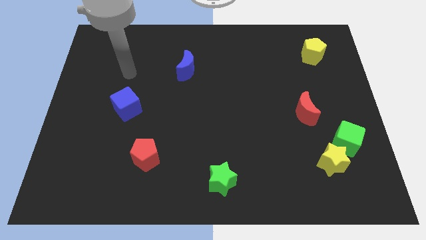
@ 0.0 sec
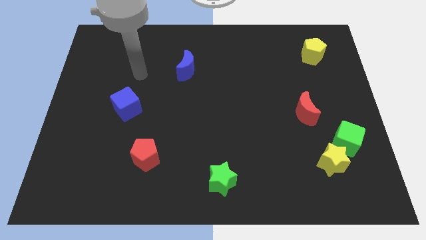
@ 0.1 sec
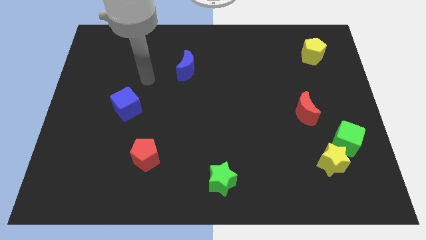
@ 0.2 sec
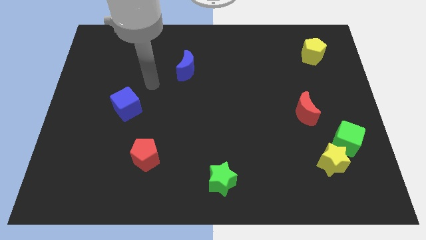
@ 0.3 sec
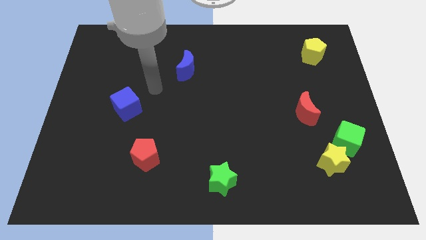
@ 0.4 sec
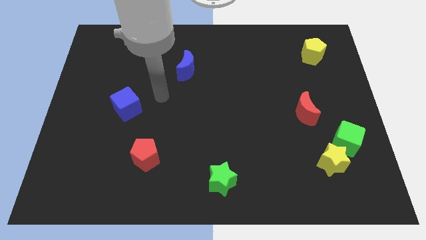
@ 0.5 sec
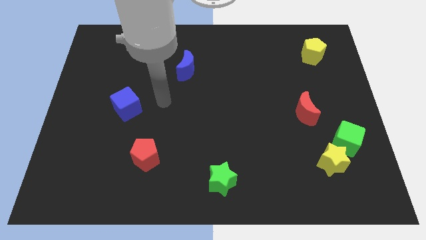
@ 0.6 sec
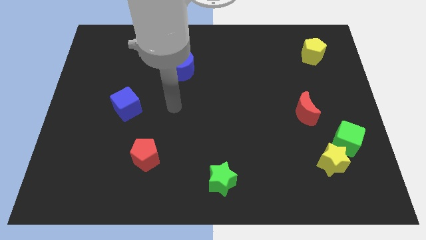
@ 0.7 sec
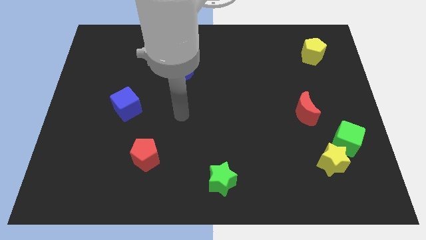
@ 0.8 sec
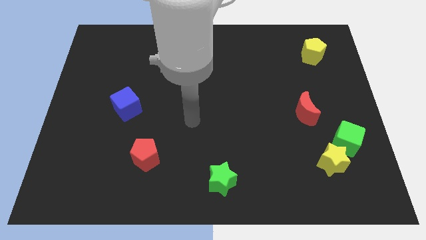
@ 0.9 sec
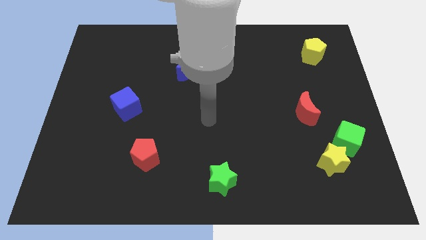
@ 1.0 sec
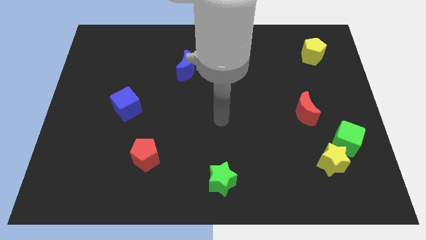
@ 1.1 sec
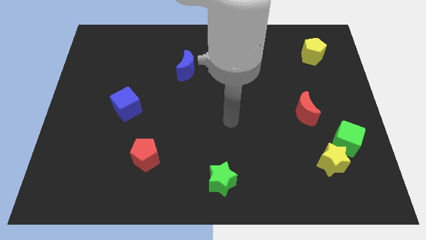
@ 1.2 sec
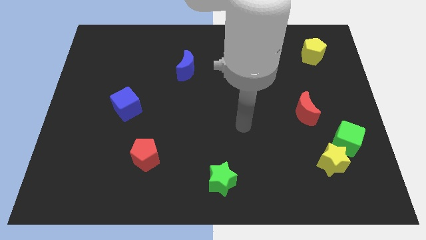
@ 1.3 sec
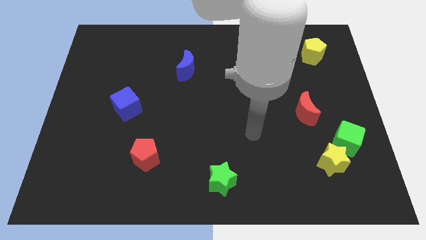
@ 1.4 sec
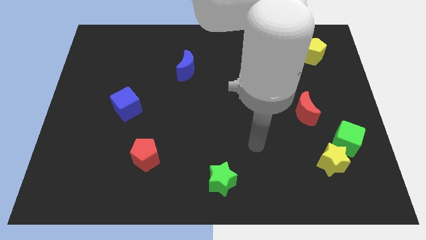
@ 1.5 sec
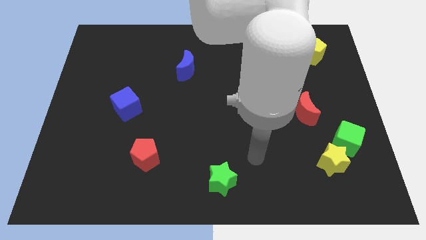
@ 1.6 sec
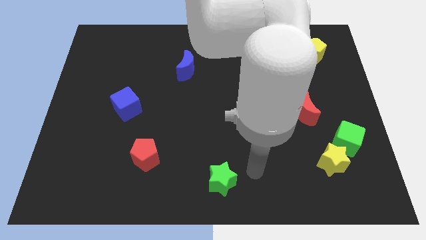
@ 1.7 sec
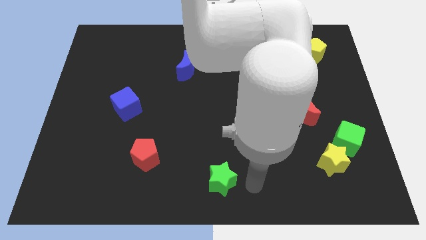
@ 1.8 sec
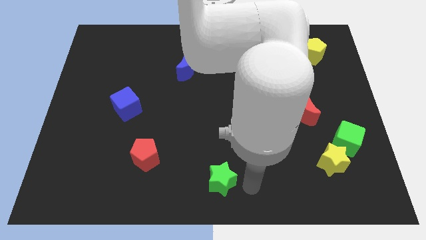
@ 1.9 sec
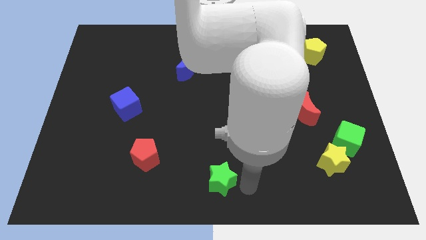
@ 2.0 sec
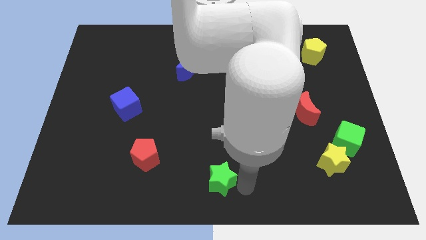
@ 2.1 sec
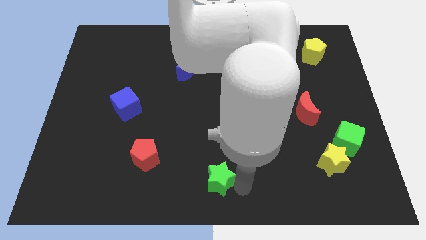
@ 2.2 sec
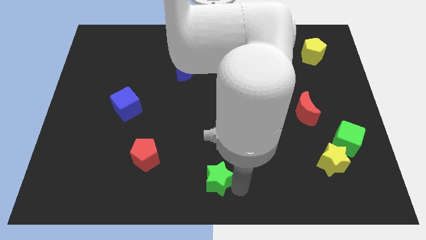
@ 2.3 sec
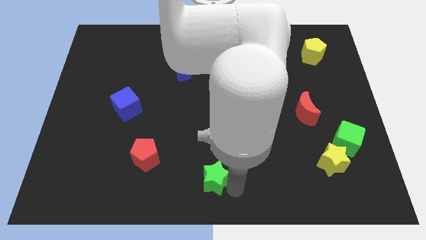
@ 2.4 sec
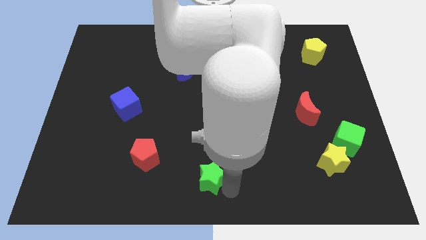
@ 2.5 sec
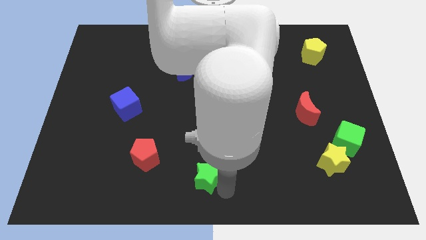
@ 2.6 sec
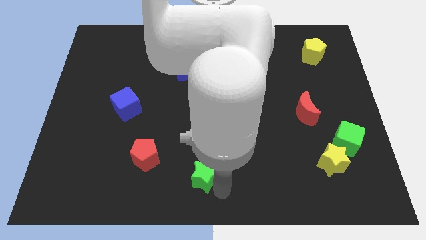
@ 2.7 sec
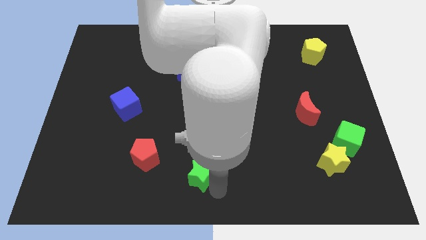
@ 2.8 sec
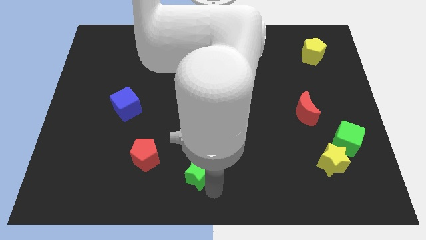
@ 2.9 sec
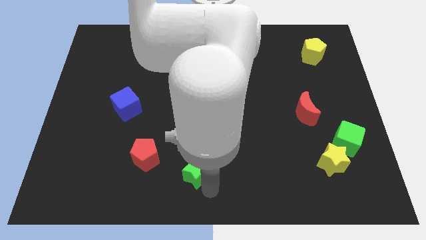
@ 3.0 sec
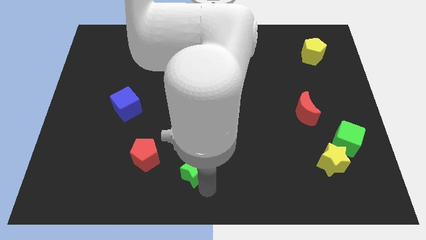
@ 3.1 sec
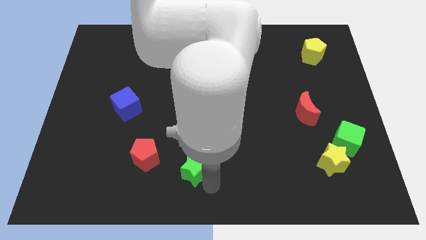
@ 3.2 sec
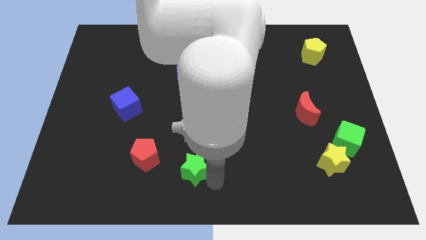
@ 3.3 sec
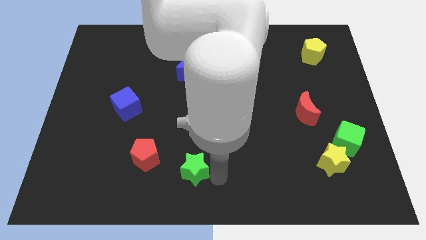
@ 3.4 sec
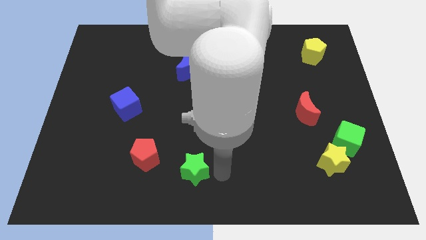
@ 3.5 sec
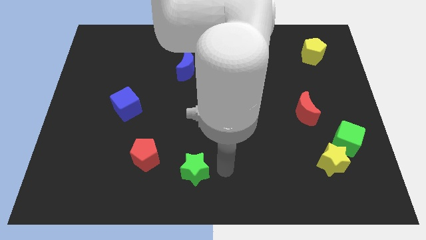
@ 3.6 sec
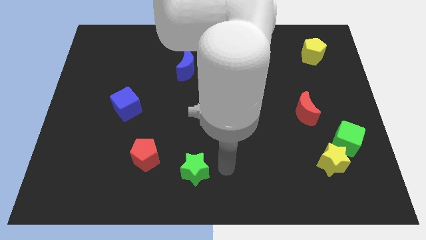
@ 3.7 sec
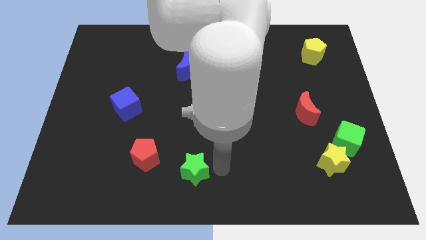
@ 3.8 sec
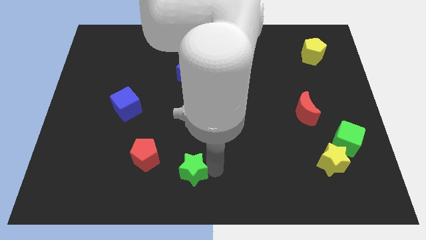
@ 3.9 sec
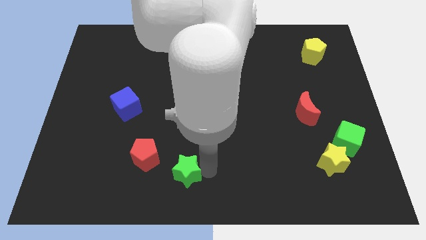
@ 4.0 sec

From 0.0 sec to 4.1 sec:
slightly slide the green star to the left

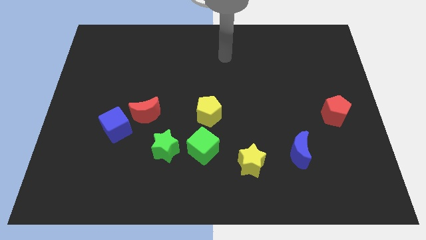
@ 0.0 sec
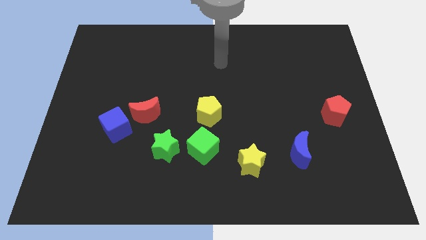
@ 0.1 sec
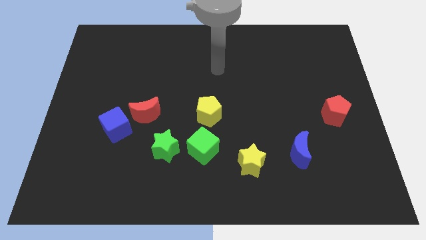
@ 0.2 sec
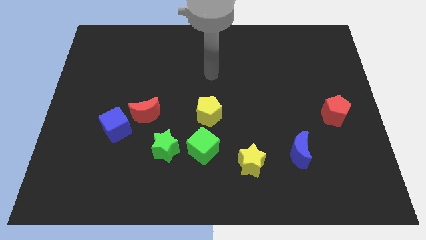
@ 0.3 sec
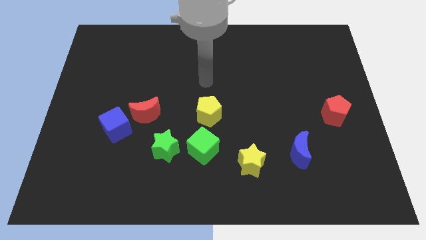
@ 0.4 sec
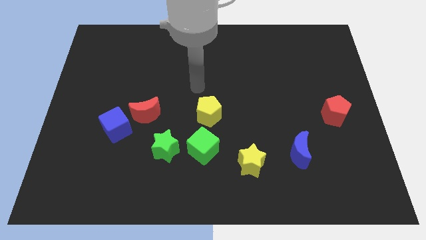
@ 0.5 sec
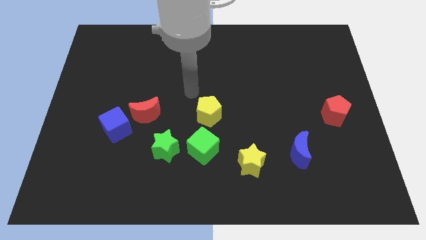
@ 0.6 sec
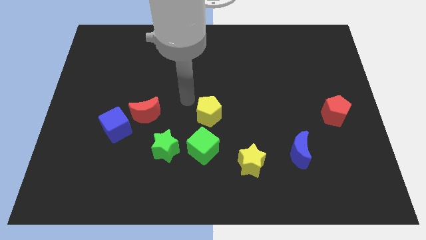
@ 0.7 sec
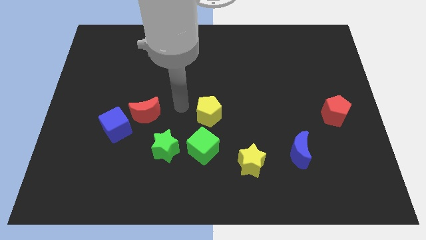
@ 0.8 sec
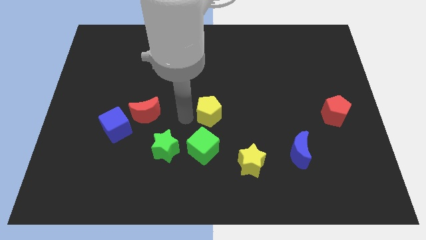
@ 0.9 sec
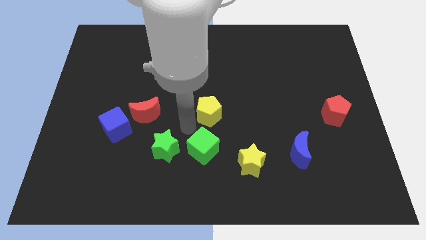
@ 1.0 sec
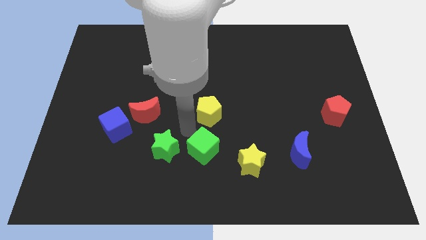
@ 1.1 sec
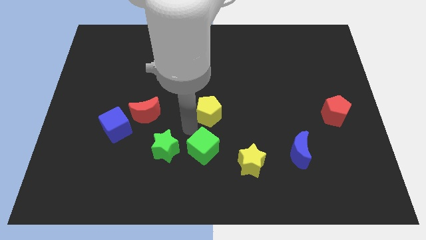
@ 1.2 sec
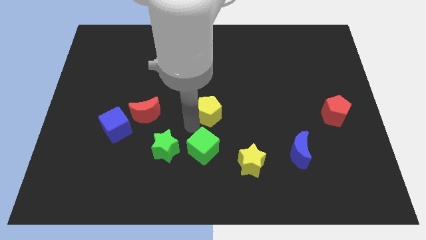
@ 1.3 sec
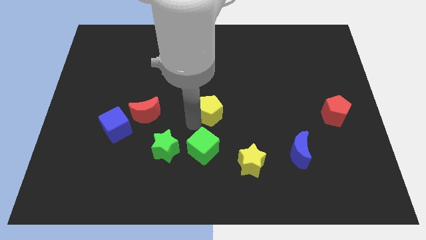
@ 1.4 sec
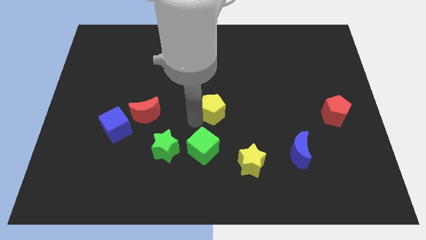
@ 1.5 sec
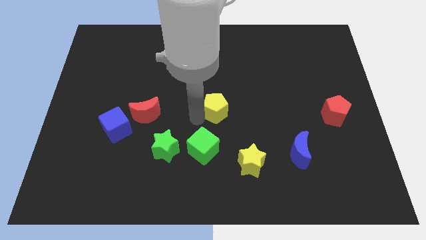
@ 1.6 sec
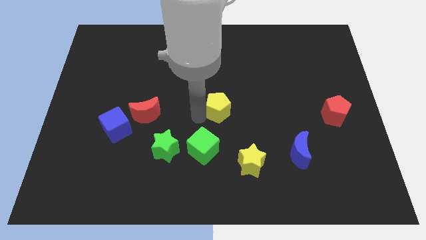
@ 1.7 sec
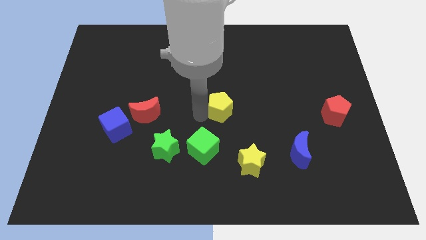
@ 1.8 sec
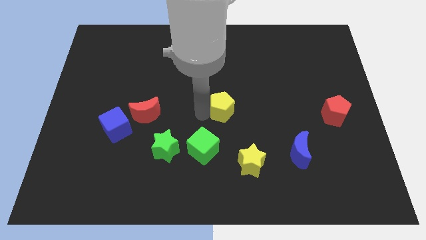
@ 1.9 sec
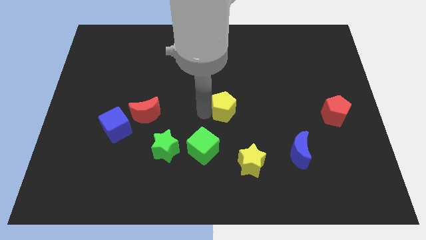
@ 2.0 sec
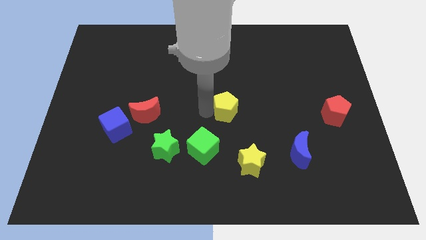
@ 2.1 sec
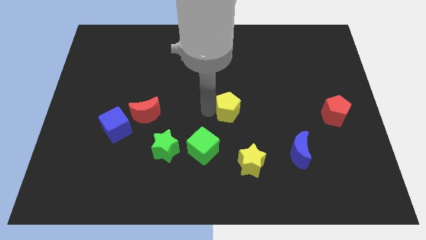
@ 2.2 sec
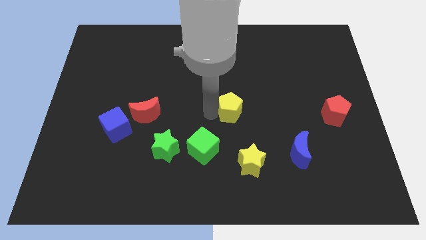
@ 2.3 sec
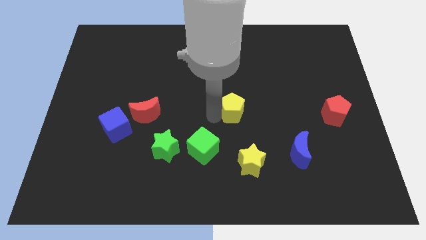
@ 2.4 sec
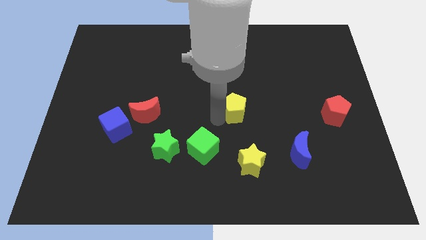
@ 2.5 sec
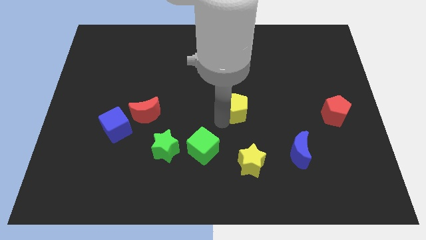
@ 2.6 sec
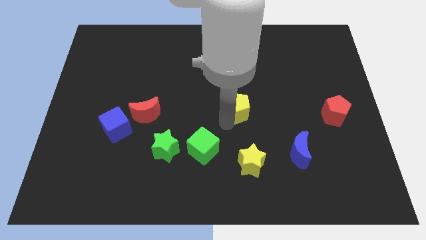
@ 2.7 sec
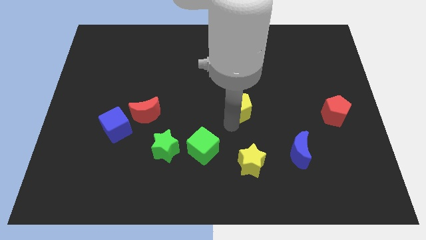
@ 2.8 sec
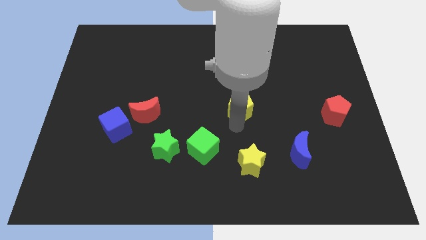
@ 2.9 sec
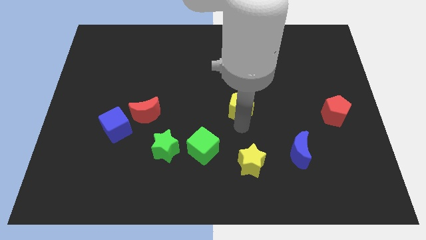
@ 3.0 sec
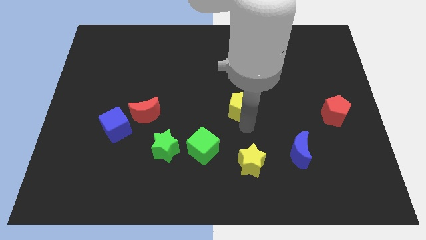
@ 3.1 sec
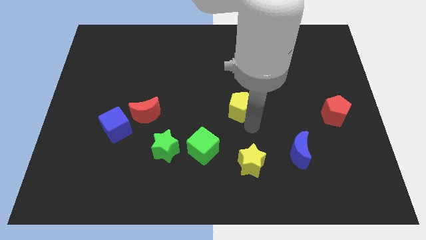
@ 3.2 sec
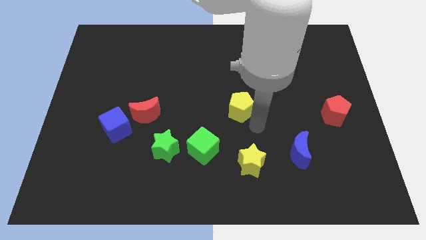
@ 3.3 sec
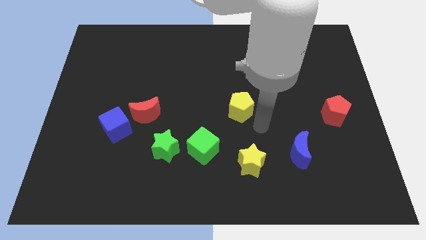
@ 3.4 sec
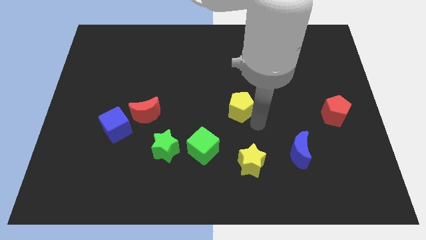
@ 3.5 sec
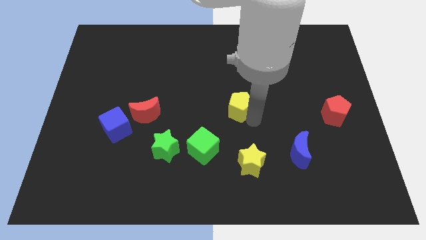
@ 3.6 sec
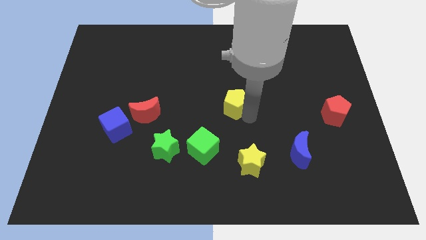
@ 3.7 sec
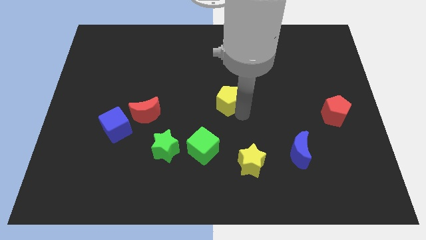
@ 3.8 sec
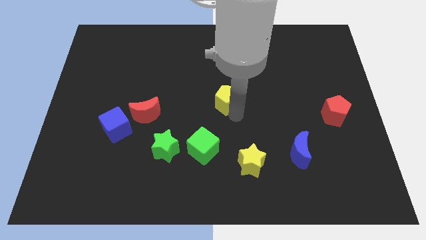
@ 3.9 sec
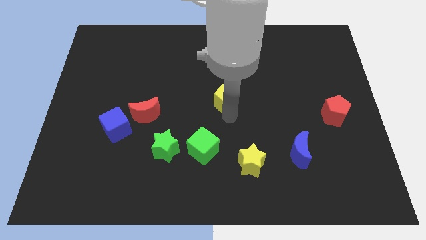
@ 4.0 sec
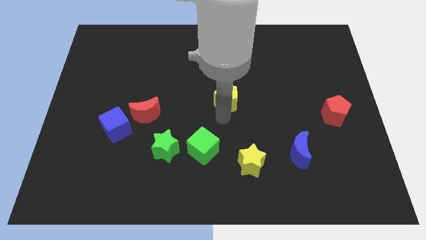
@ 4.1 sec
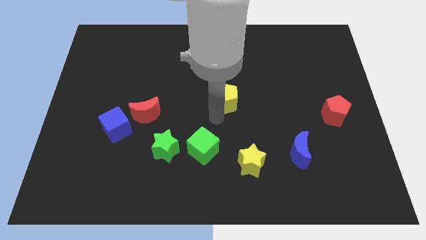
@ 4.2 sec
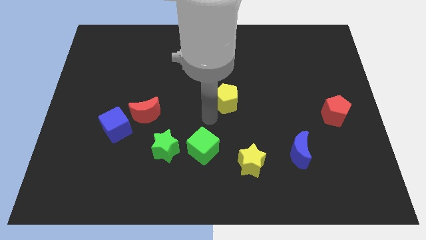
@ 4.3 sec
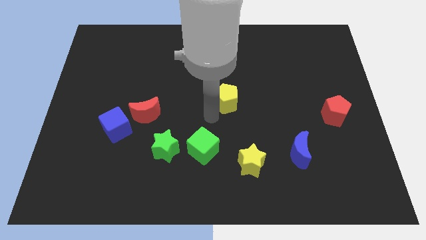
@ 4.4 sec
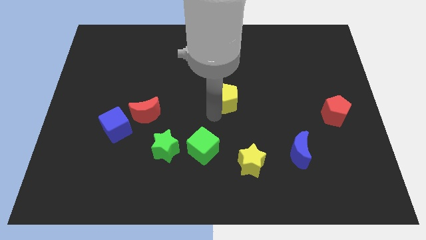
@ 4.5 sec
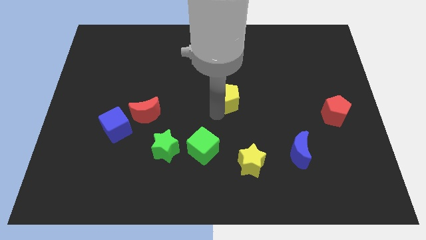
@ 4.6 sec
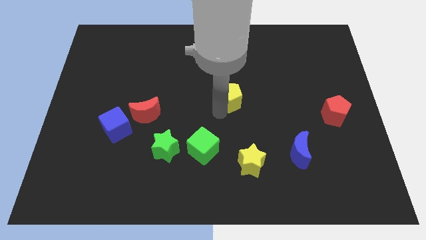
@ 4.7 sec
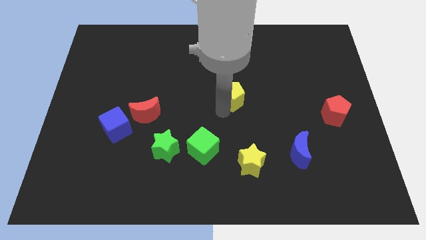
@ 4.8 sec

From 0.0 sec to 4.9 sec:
slightly slide the yellow pentagon upwards and right
